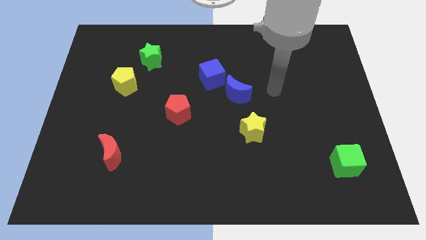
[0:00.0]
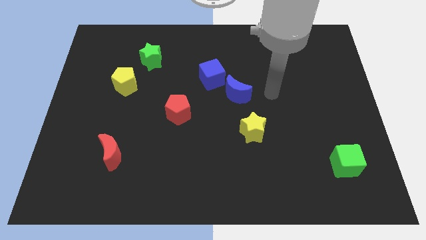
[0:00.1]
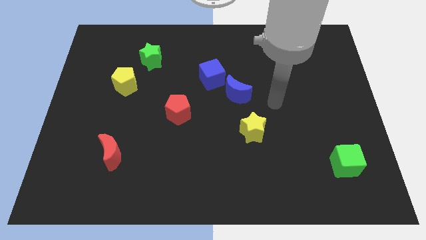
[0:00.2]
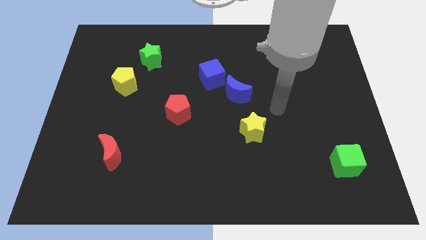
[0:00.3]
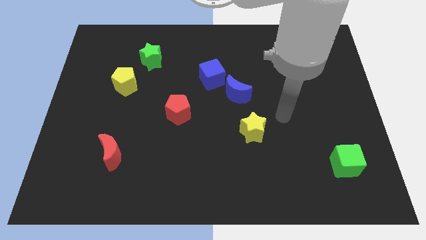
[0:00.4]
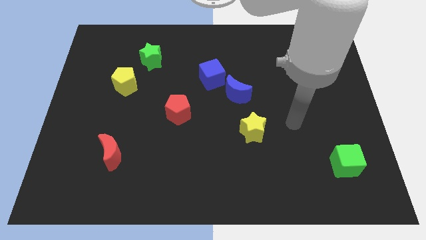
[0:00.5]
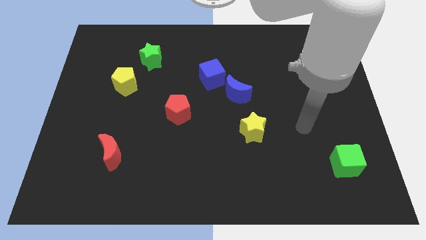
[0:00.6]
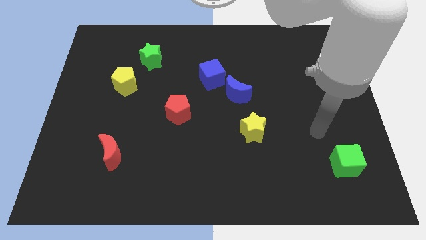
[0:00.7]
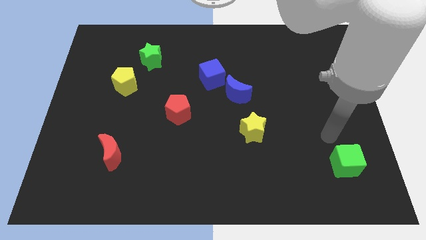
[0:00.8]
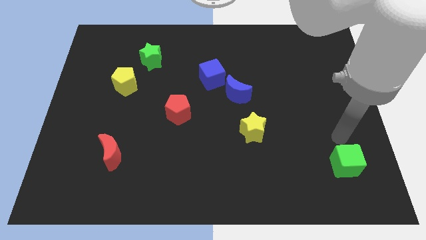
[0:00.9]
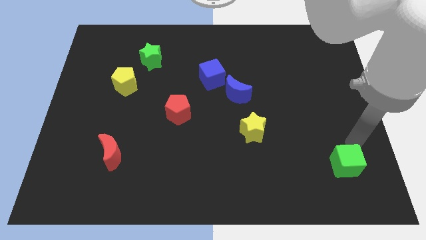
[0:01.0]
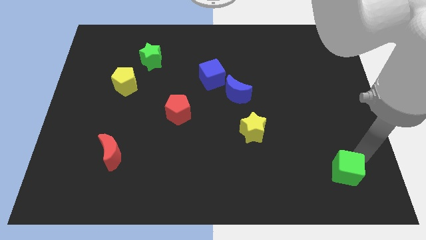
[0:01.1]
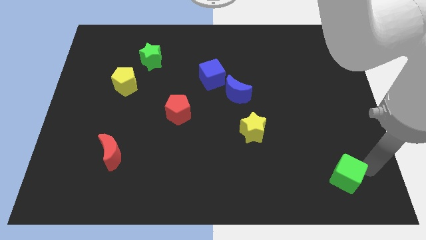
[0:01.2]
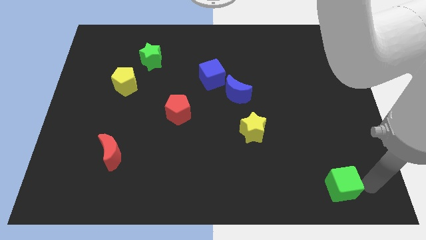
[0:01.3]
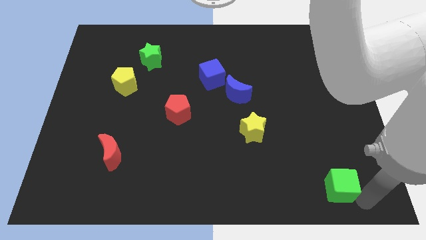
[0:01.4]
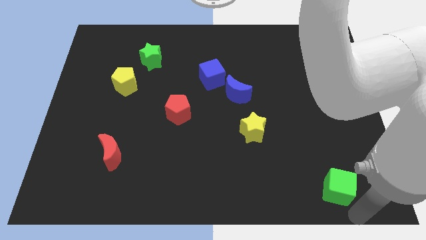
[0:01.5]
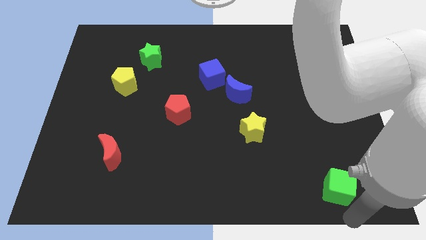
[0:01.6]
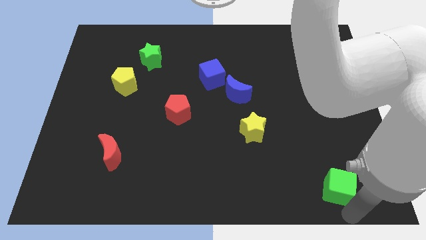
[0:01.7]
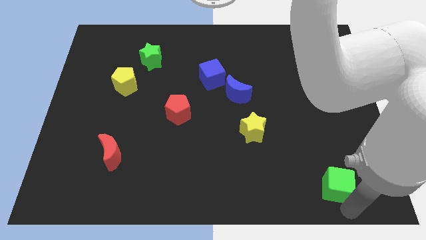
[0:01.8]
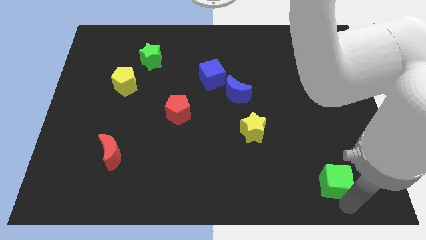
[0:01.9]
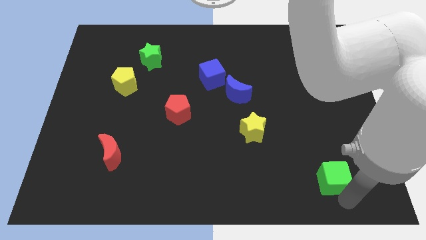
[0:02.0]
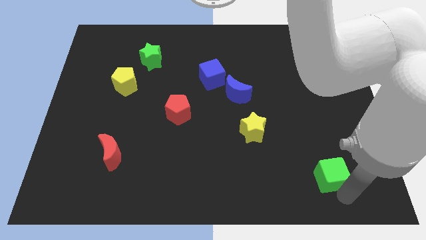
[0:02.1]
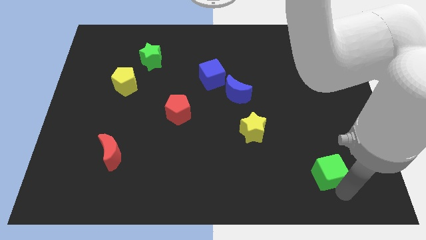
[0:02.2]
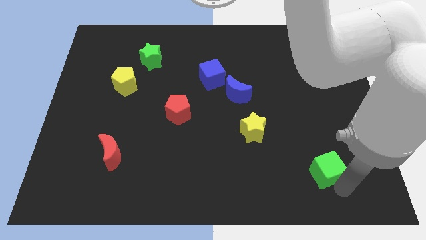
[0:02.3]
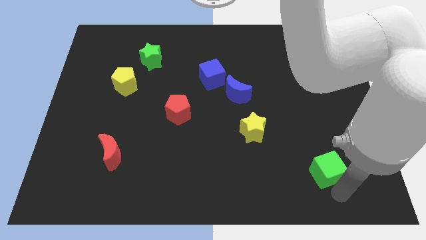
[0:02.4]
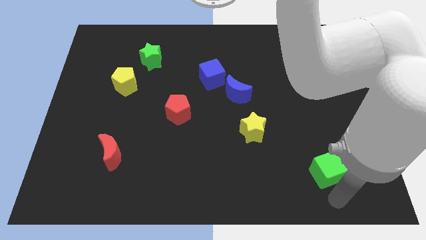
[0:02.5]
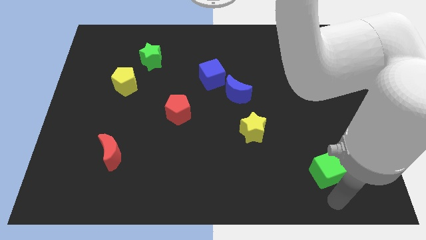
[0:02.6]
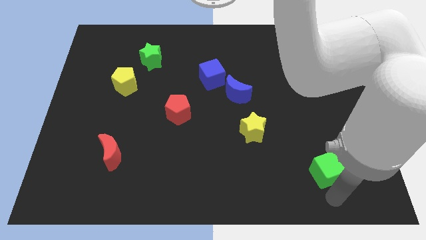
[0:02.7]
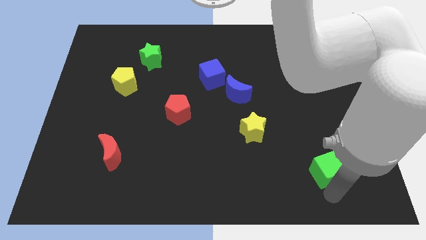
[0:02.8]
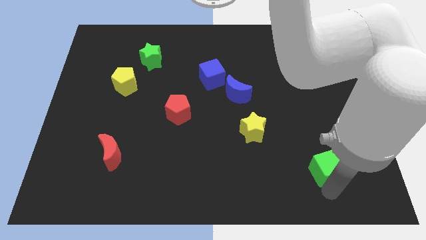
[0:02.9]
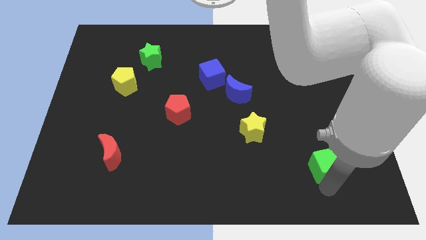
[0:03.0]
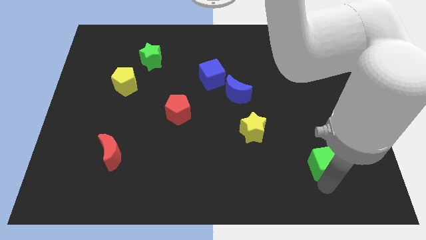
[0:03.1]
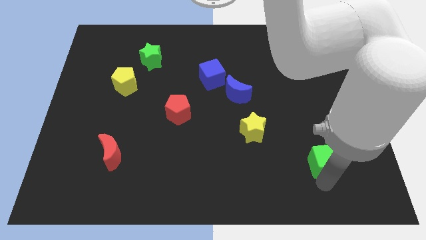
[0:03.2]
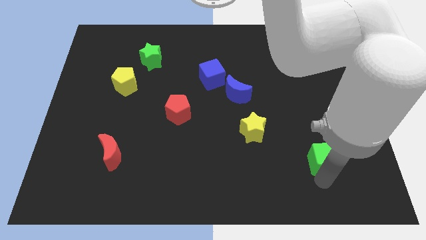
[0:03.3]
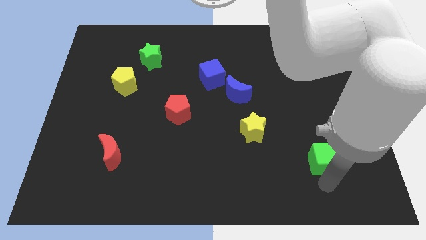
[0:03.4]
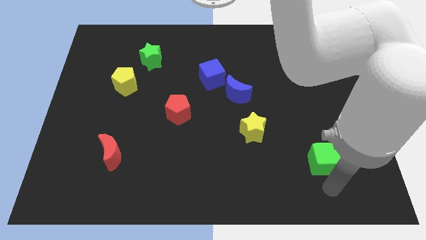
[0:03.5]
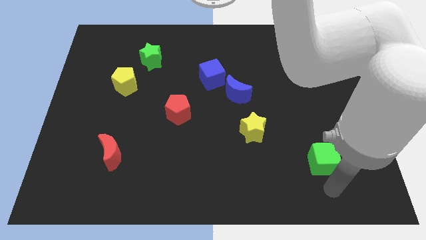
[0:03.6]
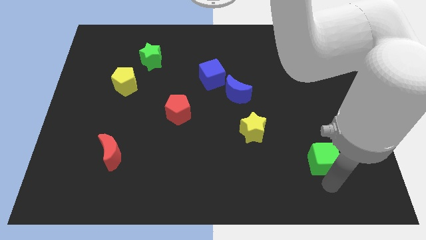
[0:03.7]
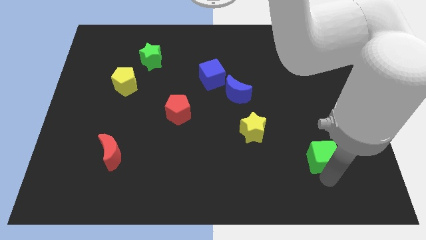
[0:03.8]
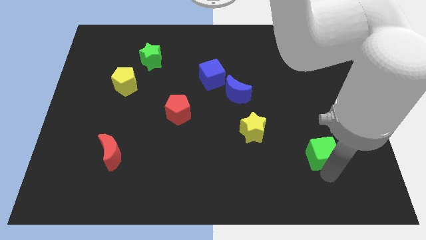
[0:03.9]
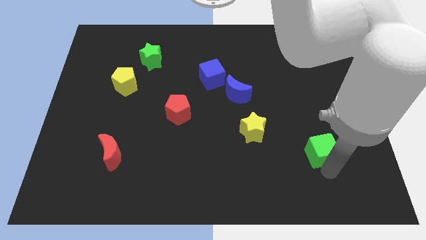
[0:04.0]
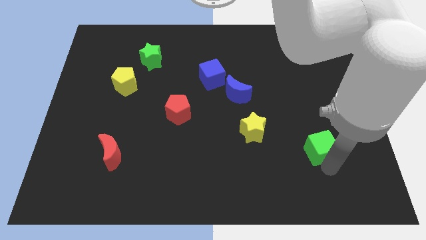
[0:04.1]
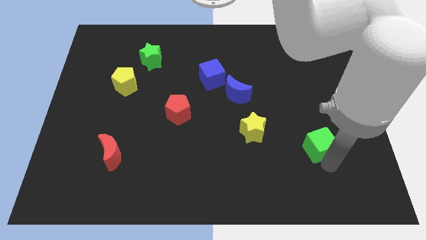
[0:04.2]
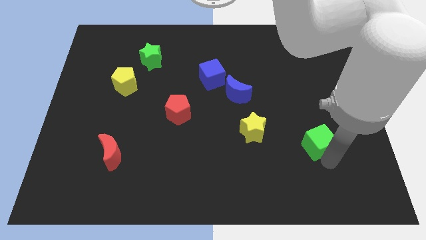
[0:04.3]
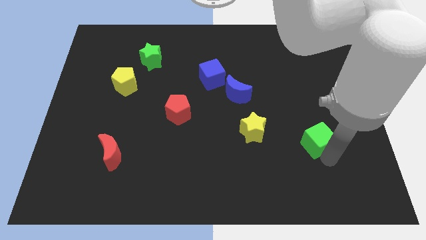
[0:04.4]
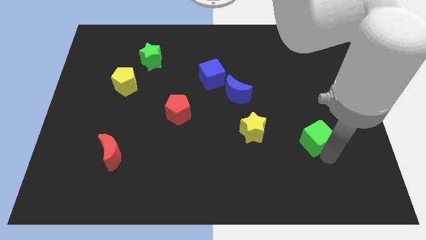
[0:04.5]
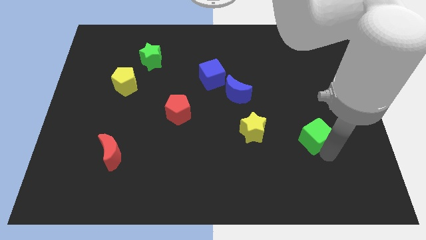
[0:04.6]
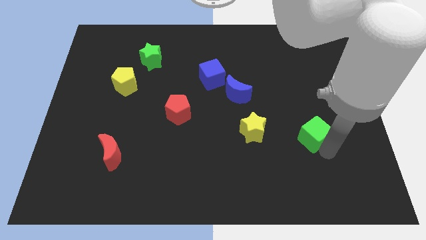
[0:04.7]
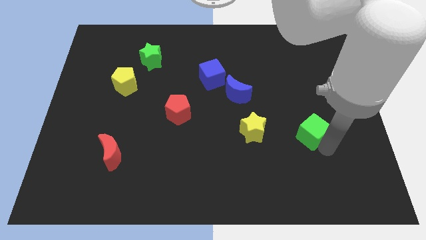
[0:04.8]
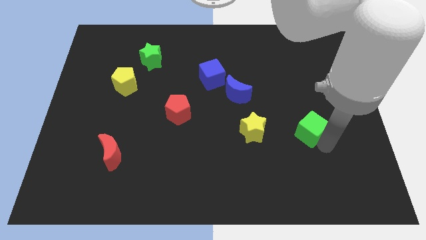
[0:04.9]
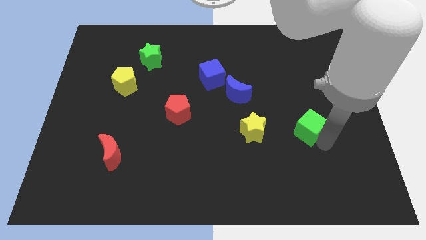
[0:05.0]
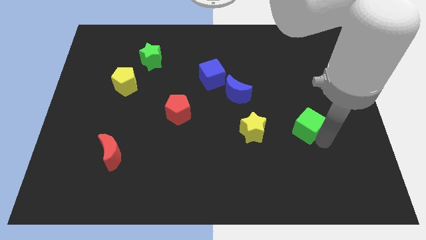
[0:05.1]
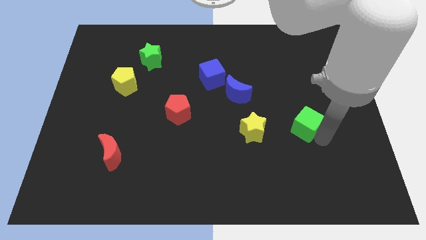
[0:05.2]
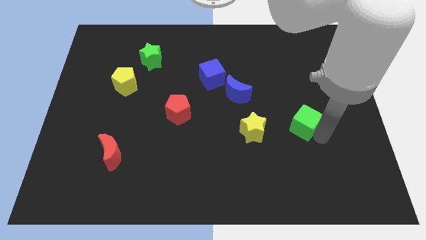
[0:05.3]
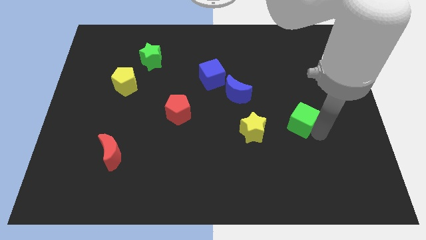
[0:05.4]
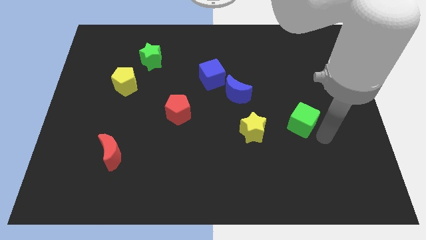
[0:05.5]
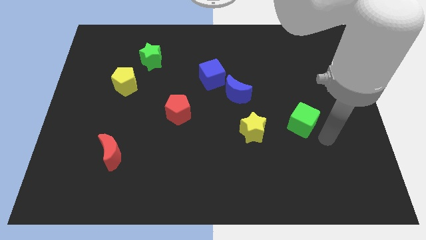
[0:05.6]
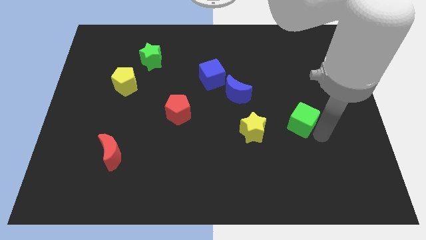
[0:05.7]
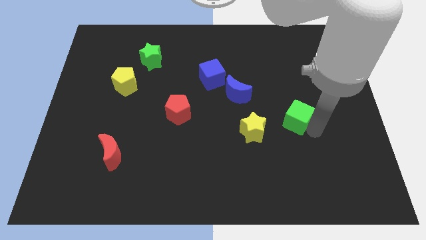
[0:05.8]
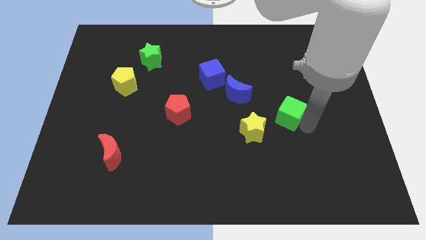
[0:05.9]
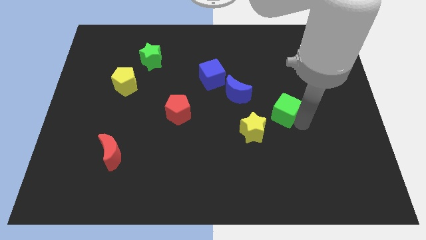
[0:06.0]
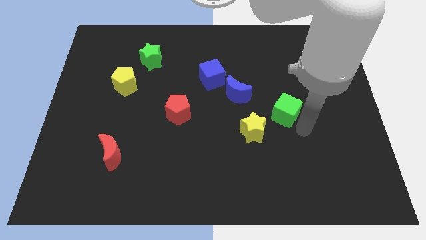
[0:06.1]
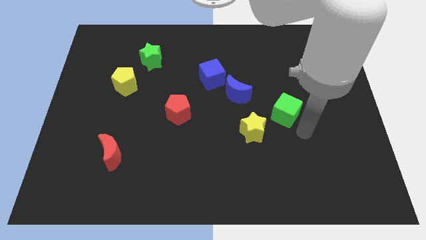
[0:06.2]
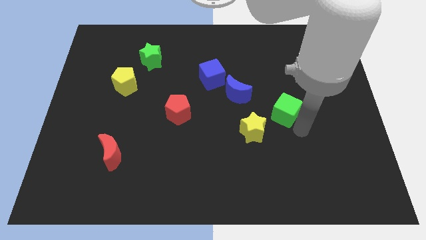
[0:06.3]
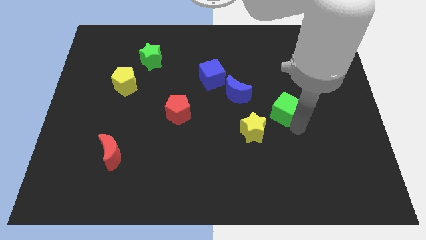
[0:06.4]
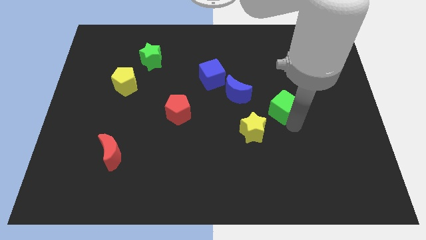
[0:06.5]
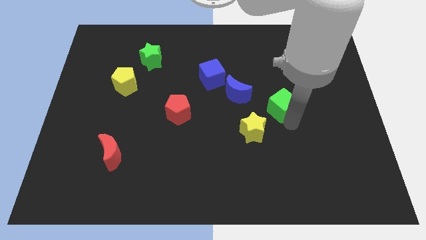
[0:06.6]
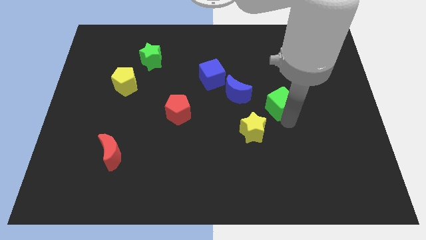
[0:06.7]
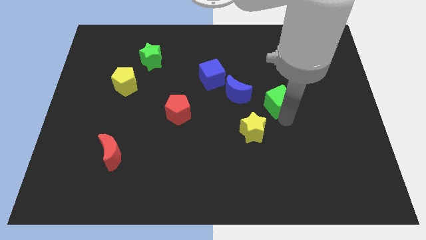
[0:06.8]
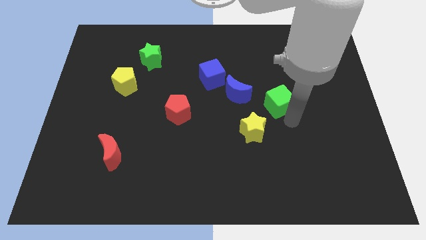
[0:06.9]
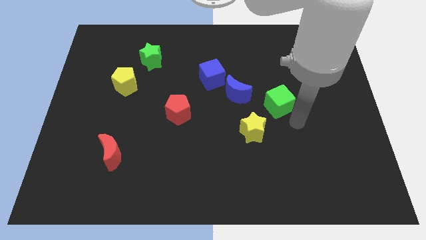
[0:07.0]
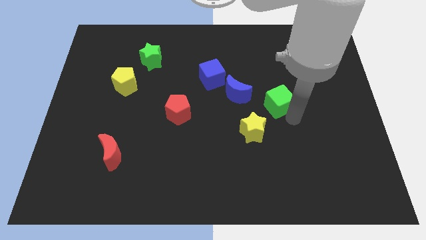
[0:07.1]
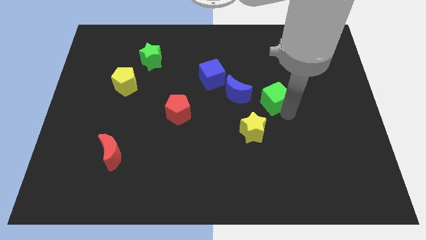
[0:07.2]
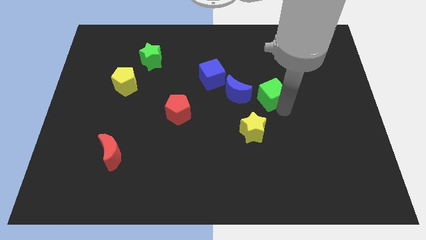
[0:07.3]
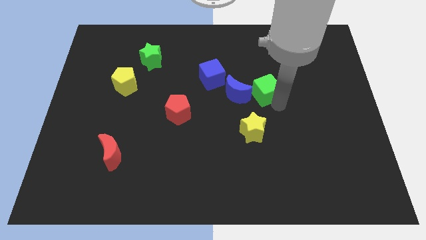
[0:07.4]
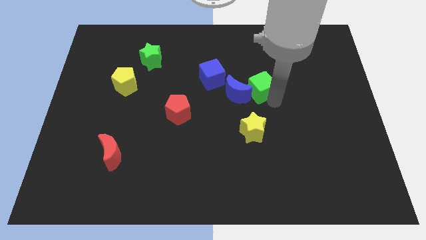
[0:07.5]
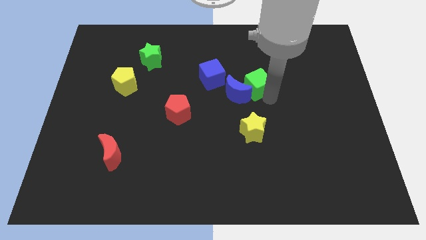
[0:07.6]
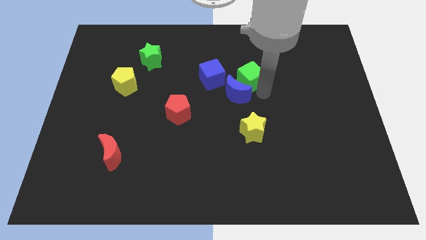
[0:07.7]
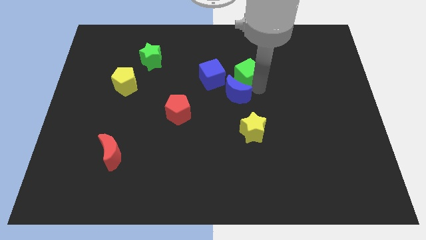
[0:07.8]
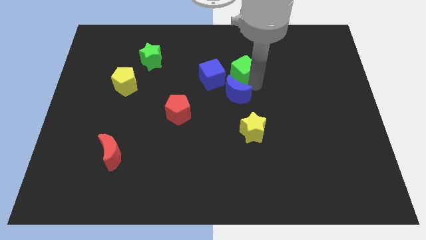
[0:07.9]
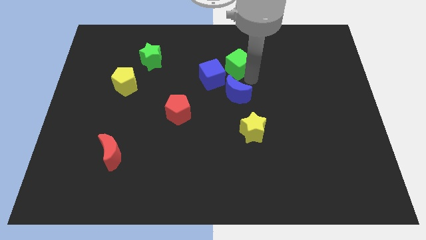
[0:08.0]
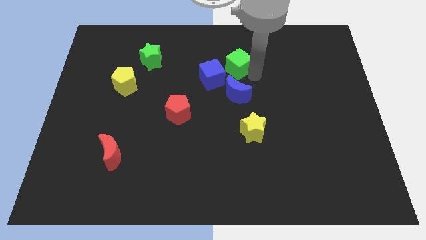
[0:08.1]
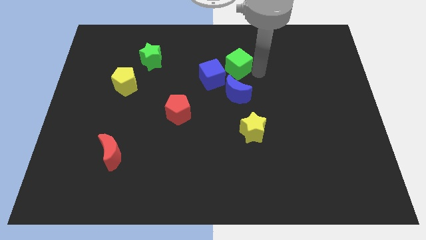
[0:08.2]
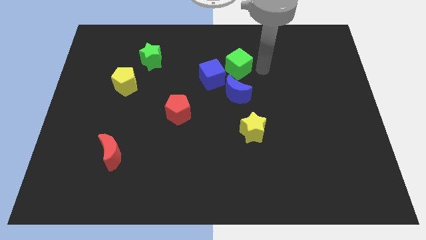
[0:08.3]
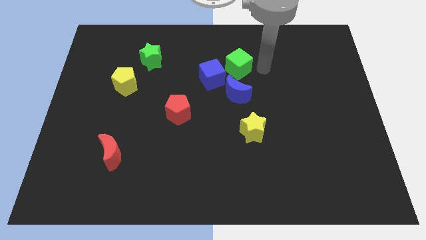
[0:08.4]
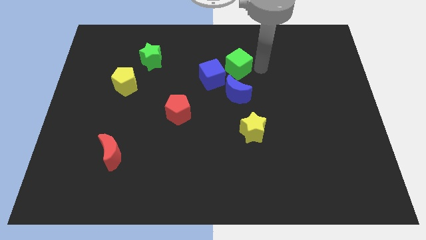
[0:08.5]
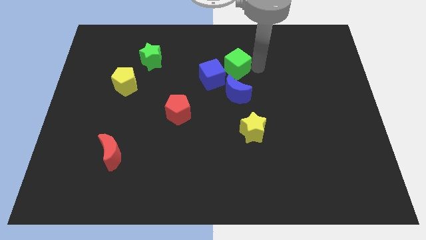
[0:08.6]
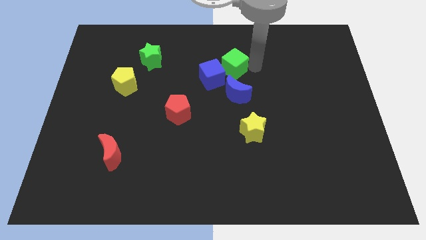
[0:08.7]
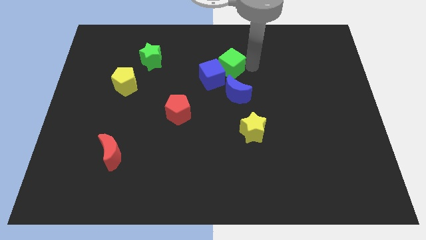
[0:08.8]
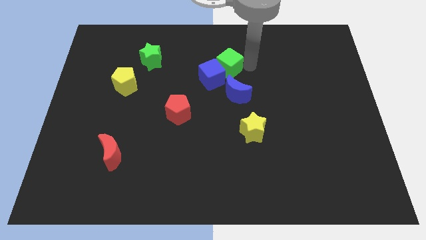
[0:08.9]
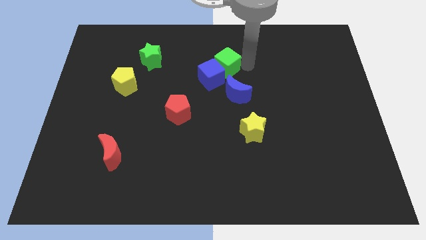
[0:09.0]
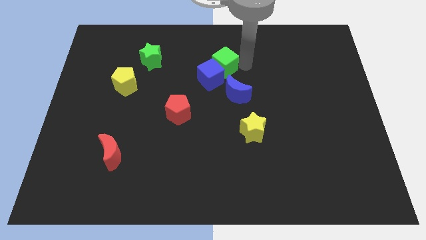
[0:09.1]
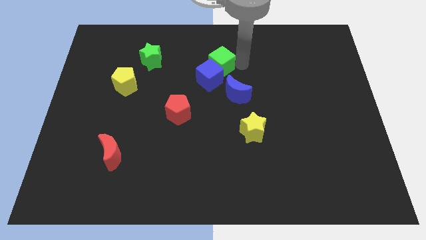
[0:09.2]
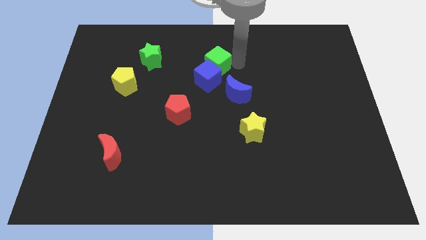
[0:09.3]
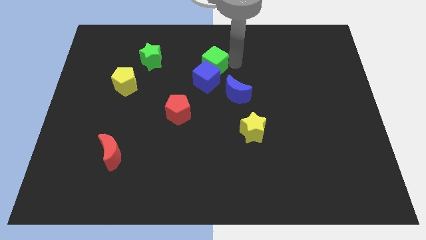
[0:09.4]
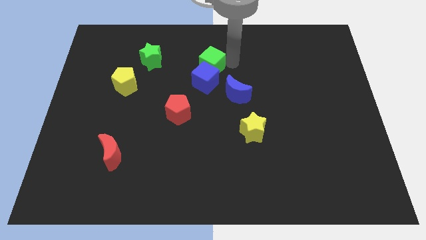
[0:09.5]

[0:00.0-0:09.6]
put the green cube right of the green star
